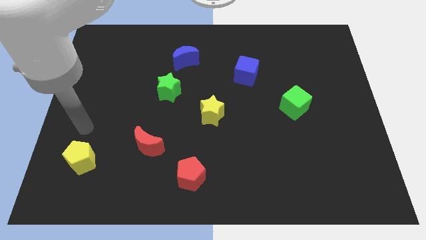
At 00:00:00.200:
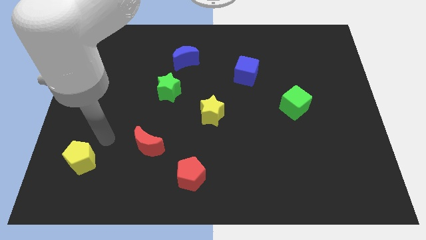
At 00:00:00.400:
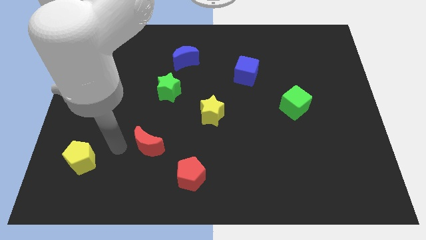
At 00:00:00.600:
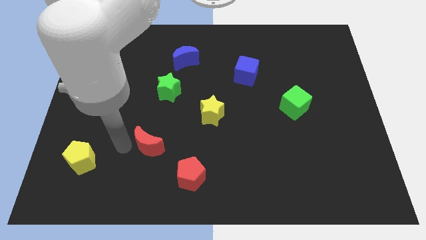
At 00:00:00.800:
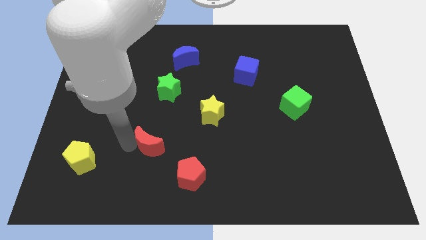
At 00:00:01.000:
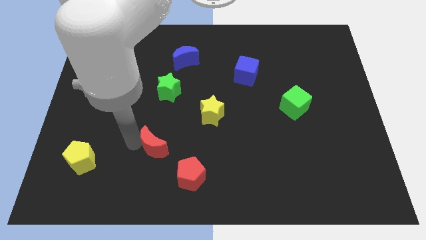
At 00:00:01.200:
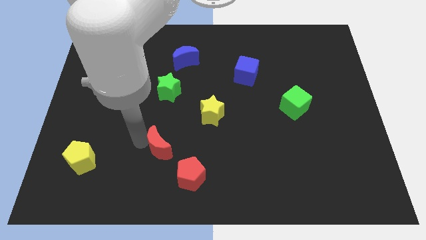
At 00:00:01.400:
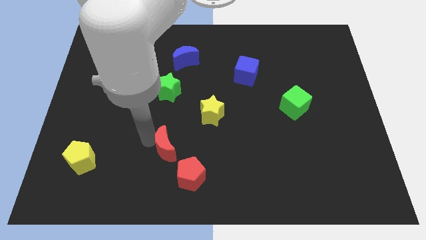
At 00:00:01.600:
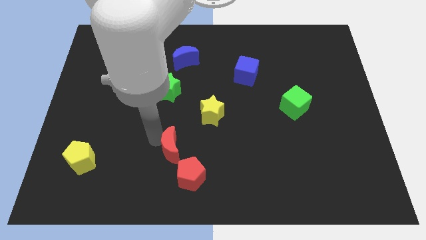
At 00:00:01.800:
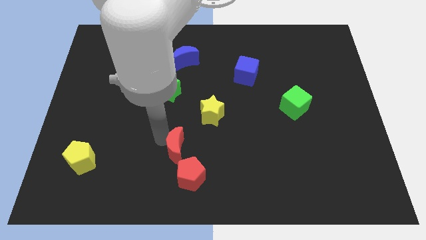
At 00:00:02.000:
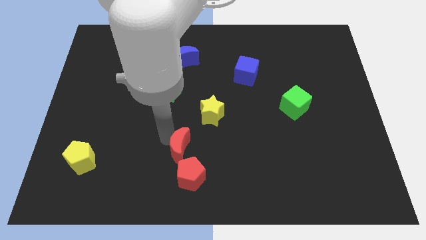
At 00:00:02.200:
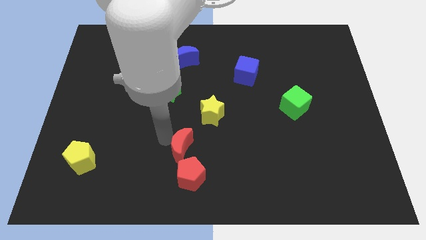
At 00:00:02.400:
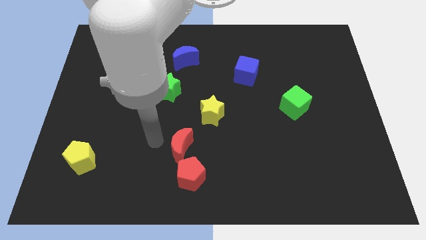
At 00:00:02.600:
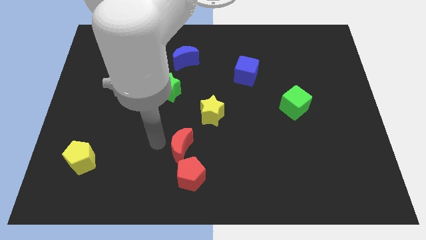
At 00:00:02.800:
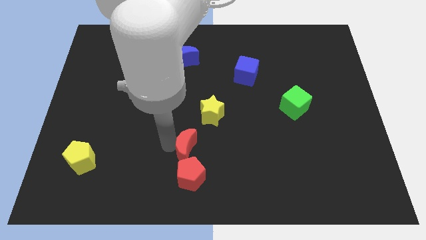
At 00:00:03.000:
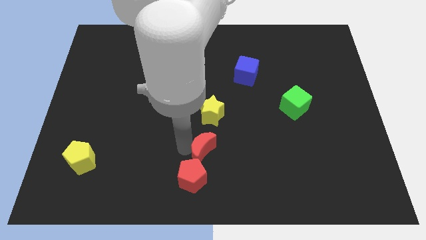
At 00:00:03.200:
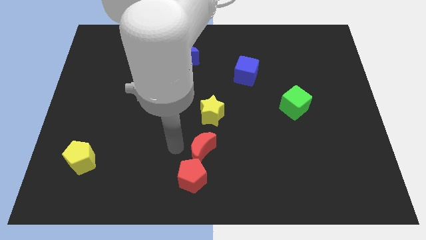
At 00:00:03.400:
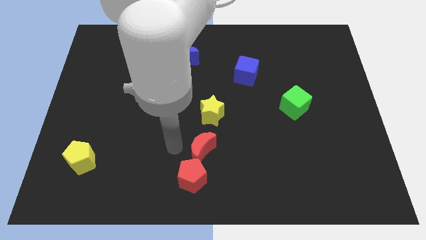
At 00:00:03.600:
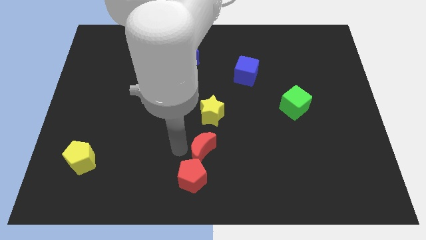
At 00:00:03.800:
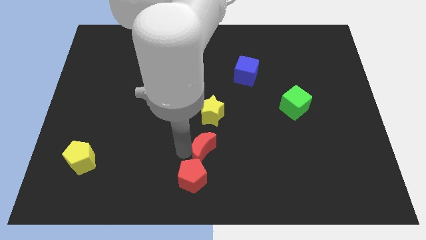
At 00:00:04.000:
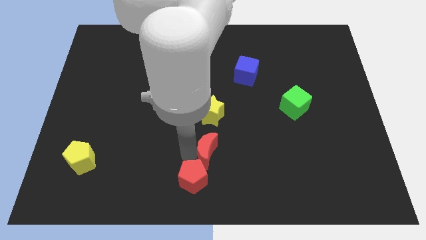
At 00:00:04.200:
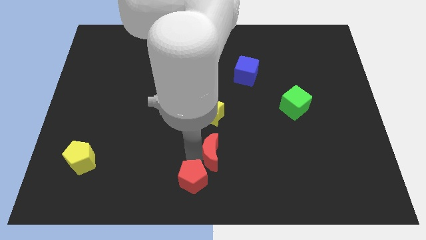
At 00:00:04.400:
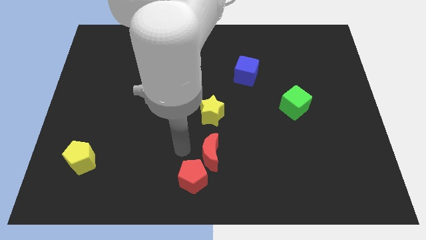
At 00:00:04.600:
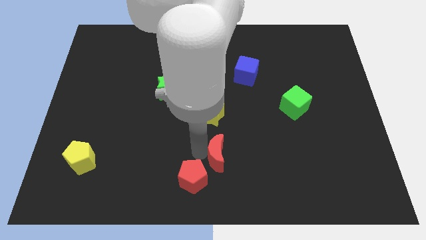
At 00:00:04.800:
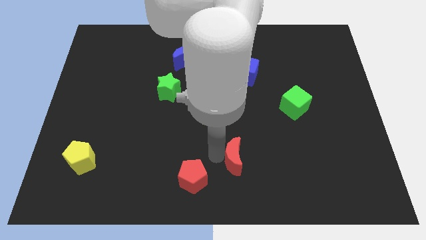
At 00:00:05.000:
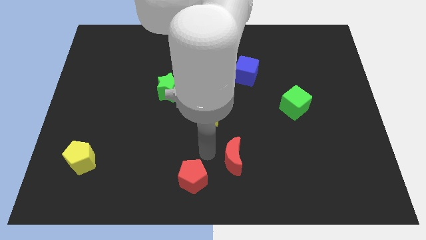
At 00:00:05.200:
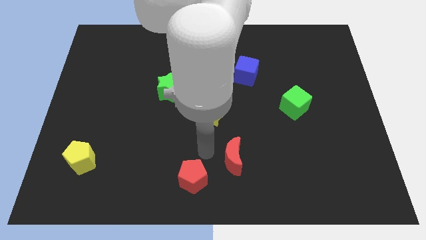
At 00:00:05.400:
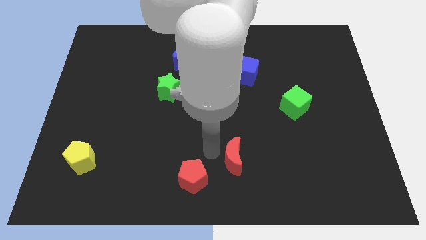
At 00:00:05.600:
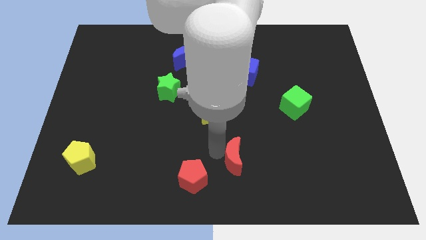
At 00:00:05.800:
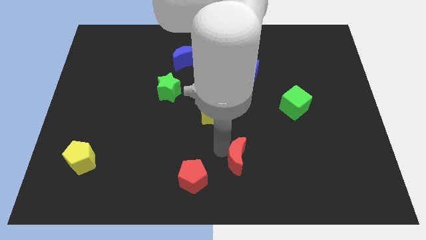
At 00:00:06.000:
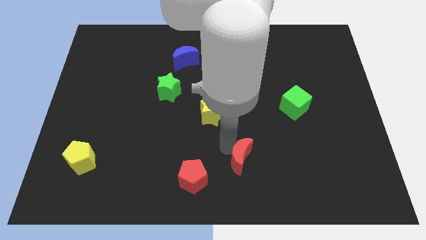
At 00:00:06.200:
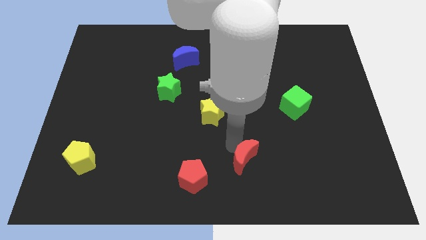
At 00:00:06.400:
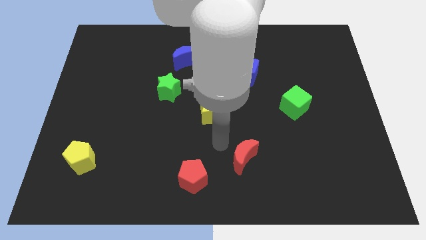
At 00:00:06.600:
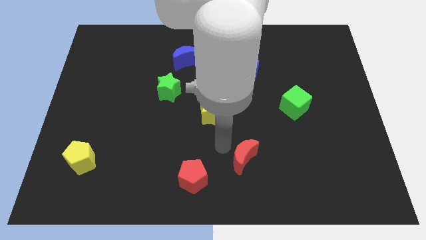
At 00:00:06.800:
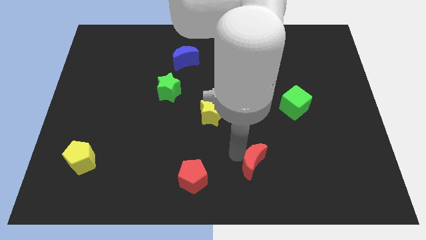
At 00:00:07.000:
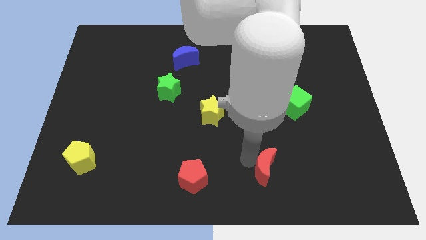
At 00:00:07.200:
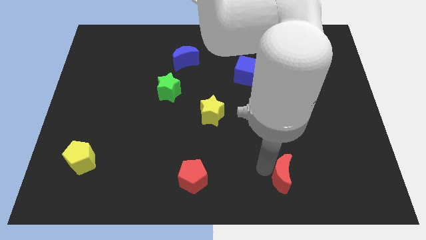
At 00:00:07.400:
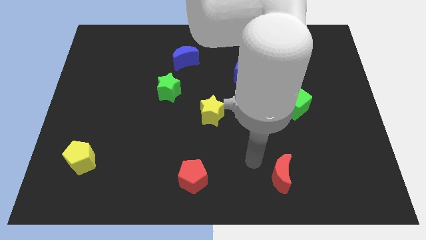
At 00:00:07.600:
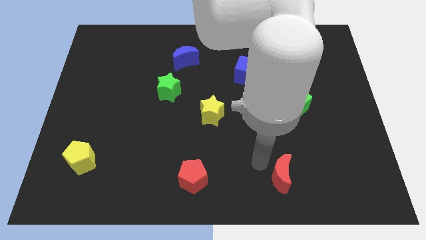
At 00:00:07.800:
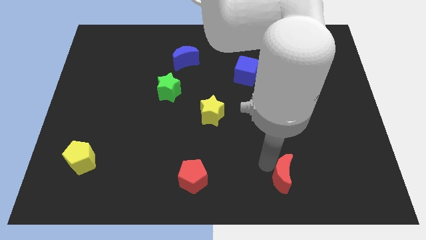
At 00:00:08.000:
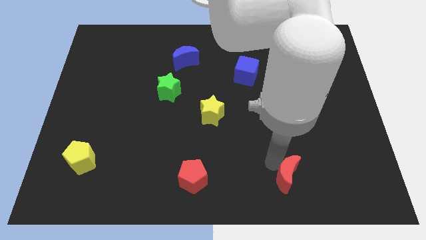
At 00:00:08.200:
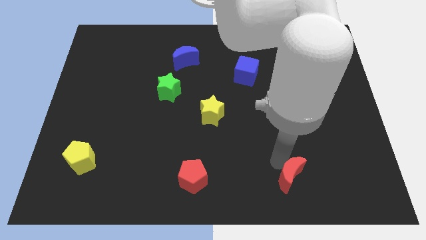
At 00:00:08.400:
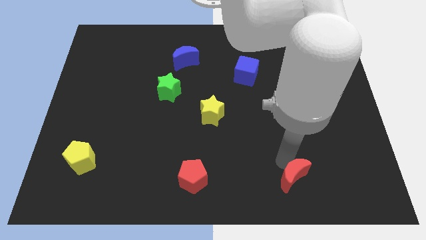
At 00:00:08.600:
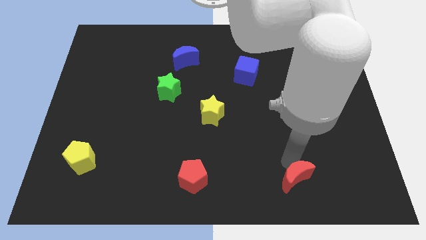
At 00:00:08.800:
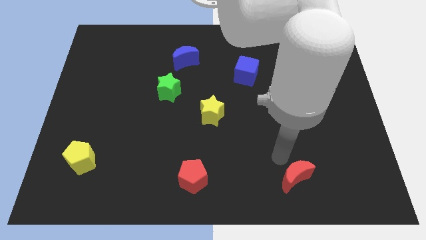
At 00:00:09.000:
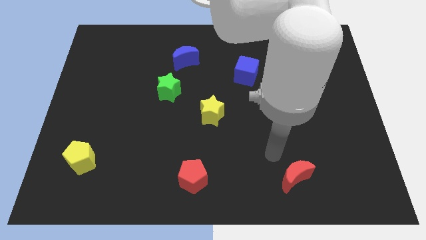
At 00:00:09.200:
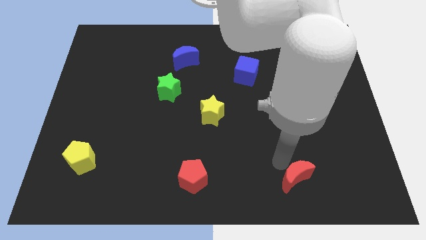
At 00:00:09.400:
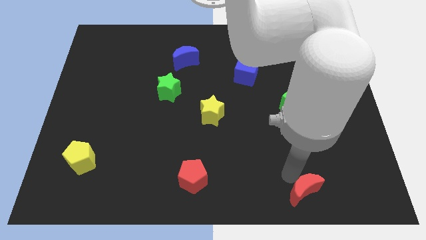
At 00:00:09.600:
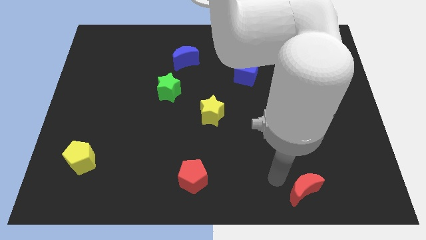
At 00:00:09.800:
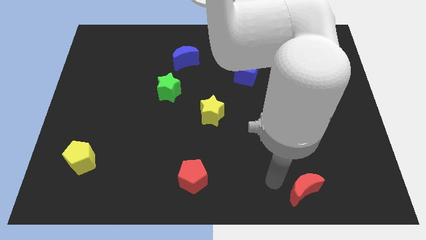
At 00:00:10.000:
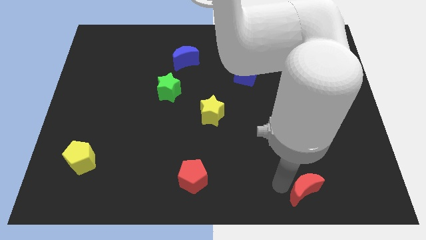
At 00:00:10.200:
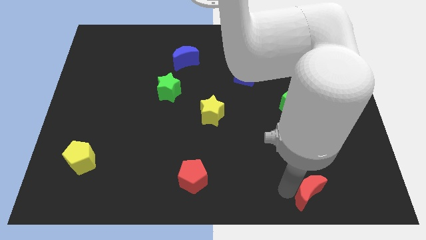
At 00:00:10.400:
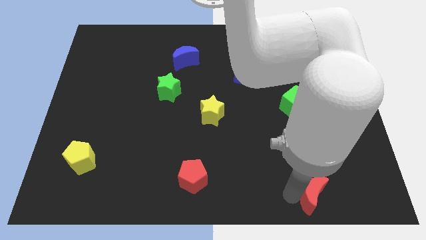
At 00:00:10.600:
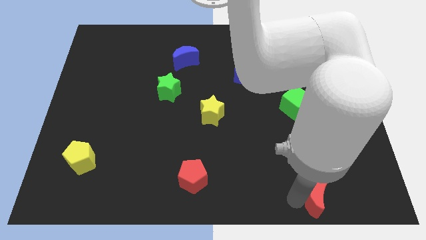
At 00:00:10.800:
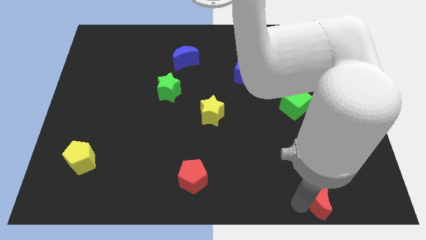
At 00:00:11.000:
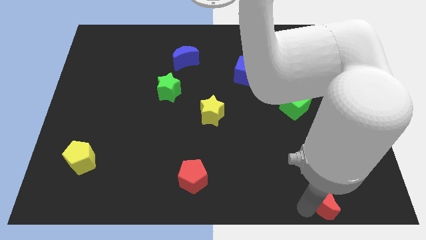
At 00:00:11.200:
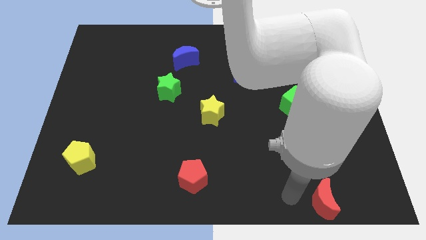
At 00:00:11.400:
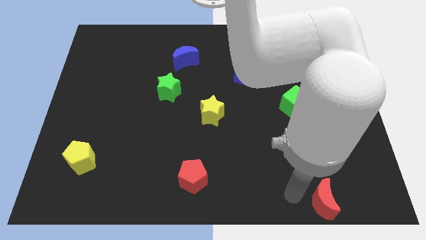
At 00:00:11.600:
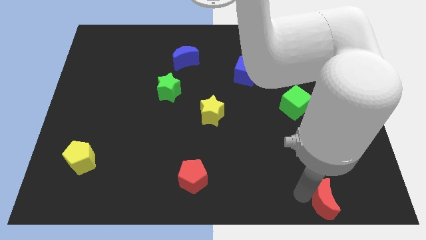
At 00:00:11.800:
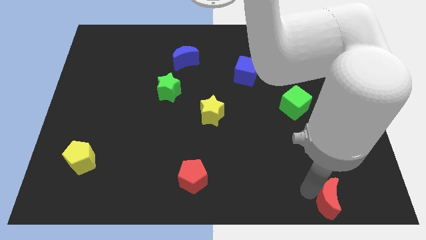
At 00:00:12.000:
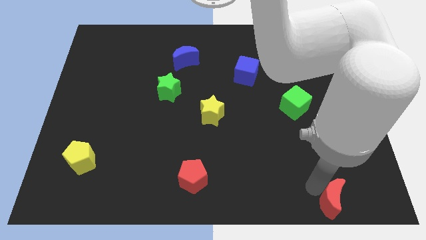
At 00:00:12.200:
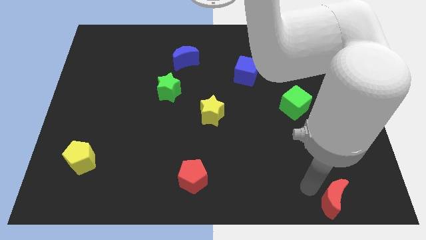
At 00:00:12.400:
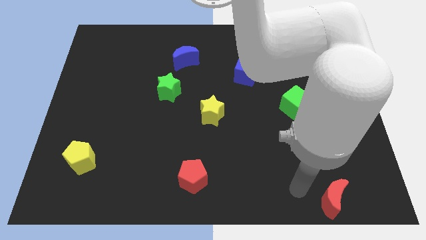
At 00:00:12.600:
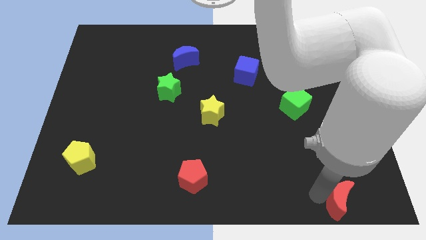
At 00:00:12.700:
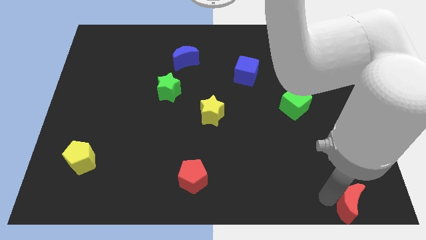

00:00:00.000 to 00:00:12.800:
push the red moon to the lower right corner
